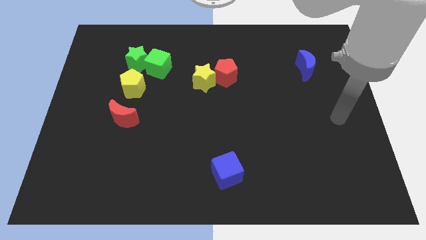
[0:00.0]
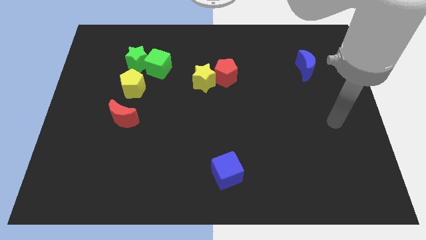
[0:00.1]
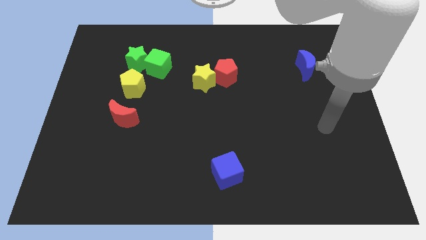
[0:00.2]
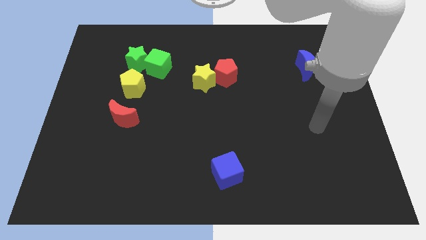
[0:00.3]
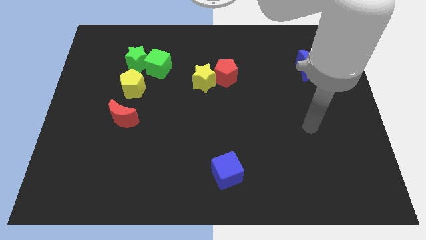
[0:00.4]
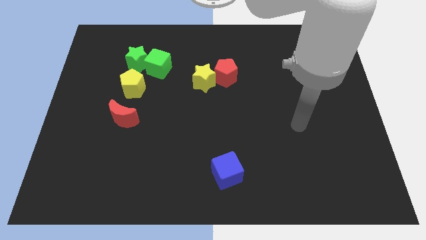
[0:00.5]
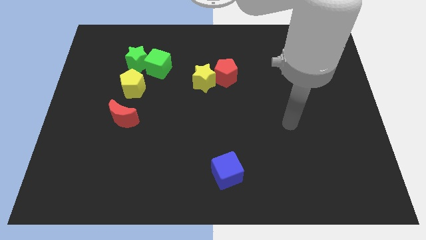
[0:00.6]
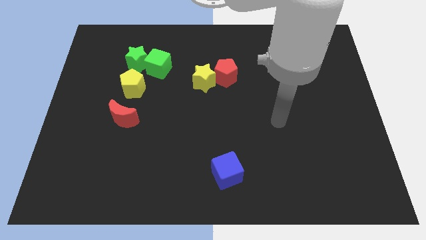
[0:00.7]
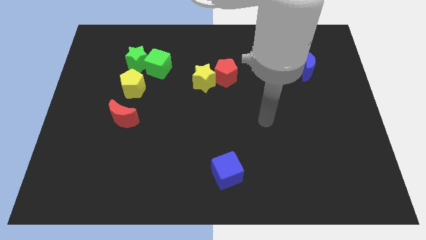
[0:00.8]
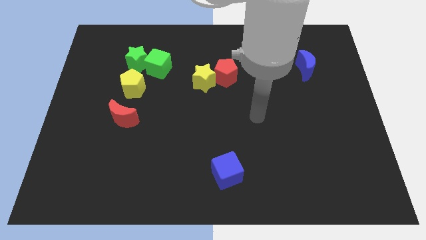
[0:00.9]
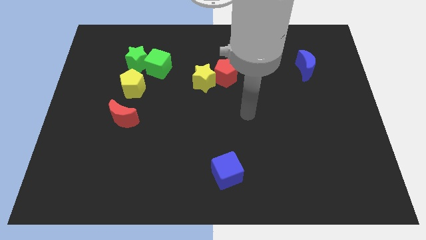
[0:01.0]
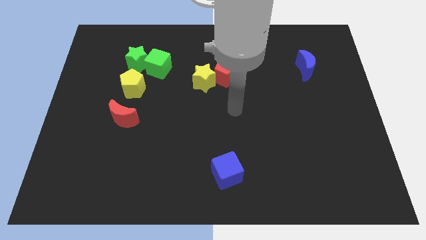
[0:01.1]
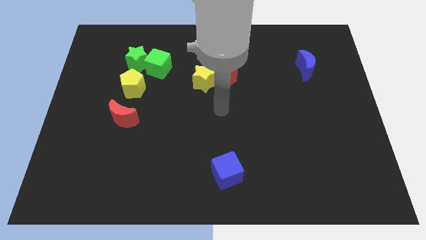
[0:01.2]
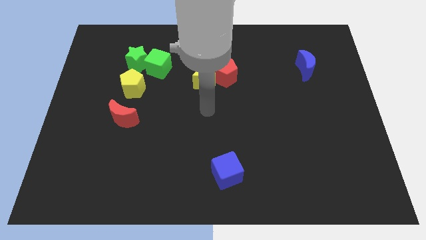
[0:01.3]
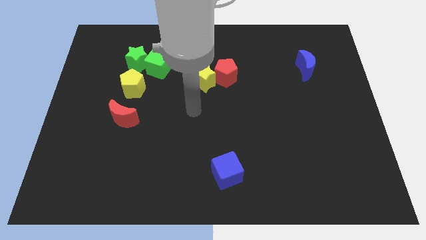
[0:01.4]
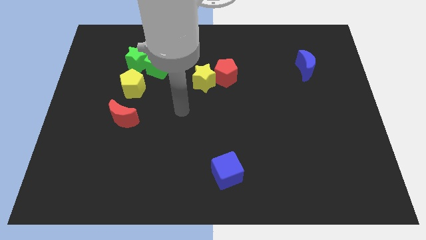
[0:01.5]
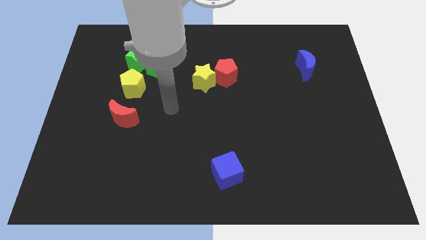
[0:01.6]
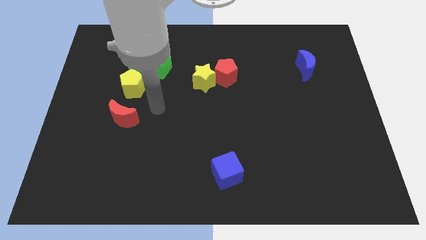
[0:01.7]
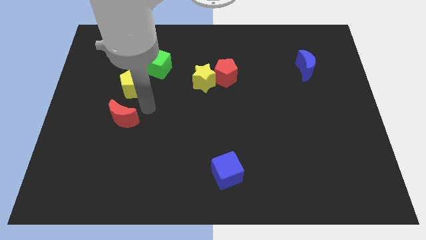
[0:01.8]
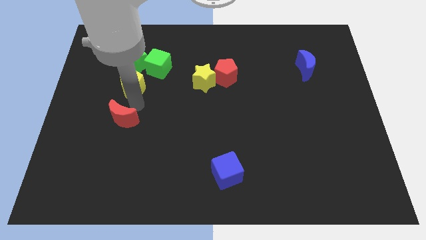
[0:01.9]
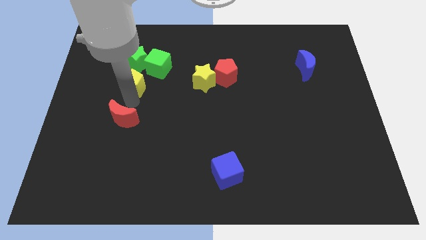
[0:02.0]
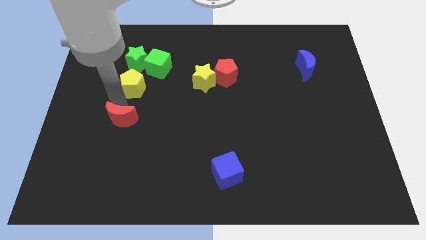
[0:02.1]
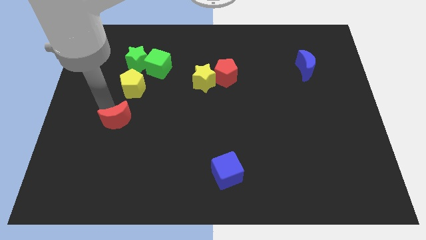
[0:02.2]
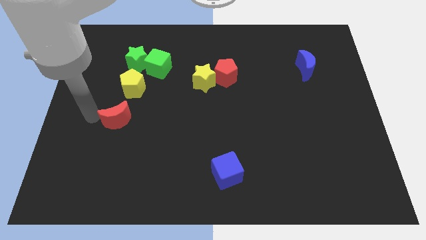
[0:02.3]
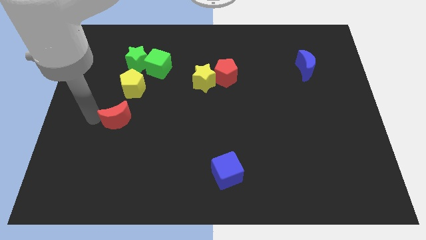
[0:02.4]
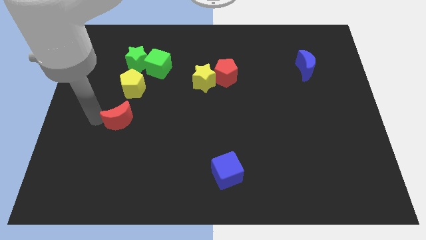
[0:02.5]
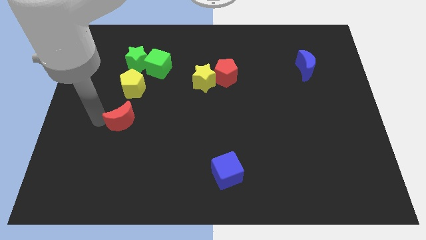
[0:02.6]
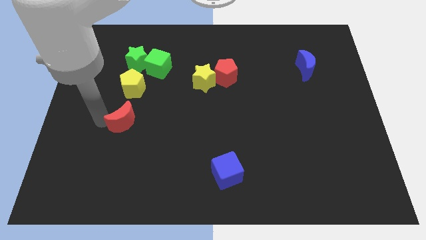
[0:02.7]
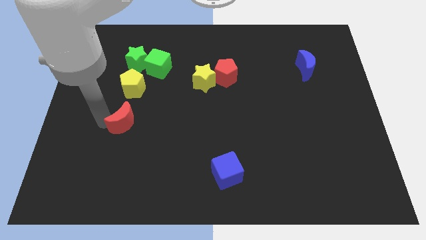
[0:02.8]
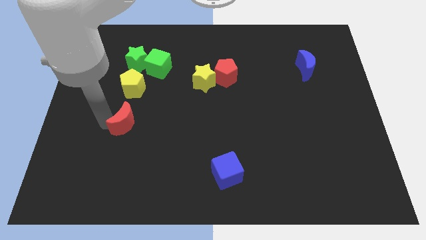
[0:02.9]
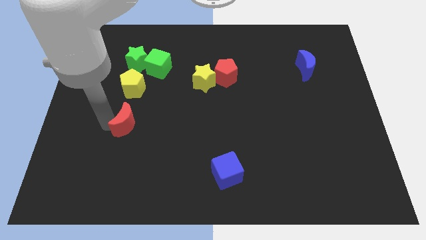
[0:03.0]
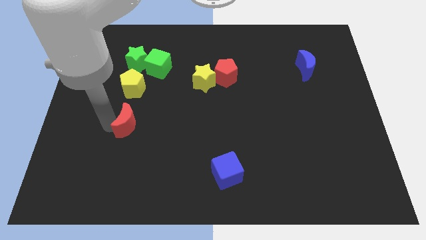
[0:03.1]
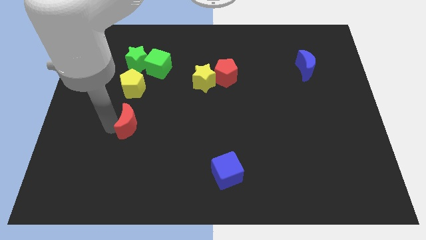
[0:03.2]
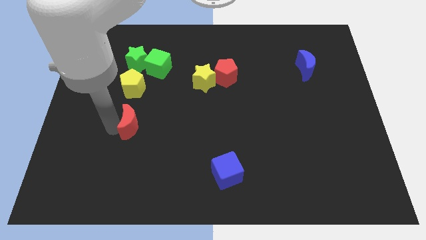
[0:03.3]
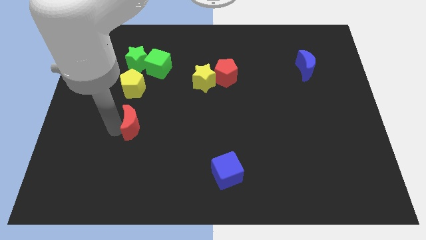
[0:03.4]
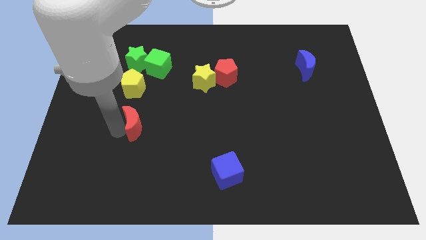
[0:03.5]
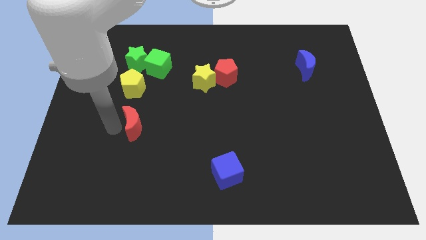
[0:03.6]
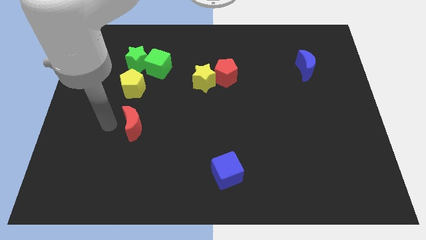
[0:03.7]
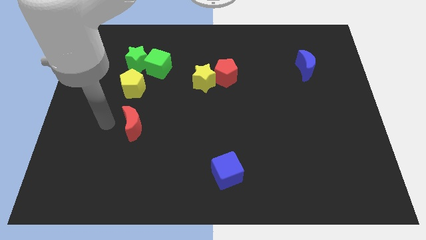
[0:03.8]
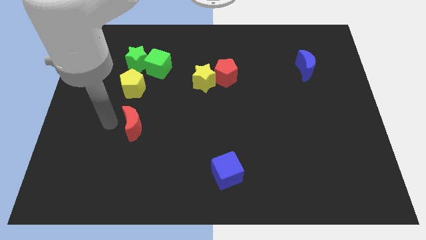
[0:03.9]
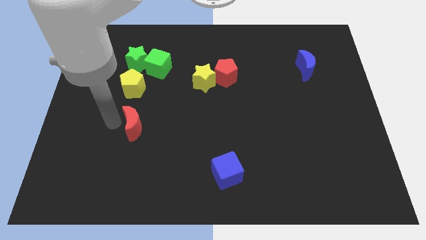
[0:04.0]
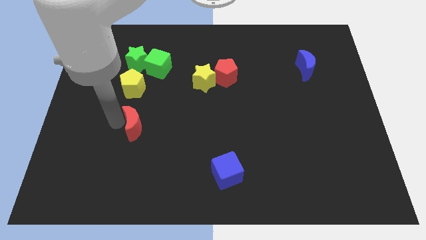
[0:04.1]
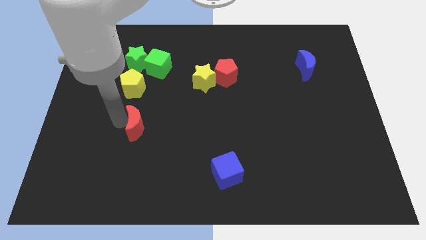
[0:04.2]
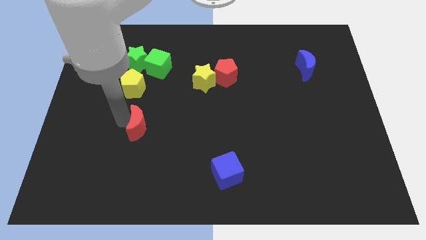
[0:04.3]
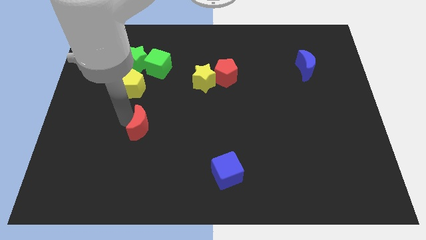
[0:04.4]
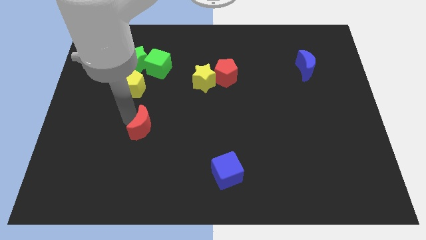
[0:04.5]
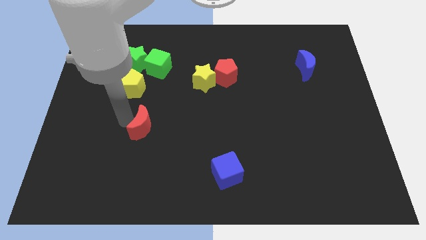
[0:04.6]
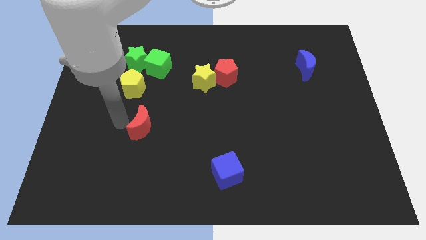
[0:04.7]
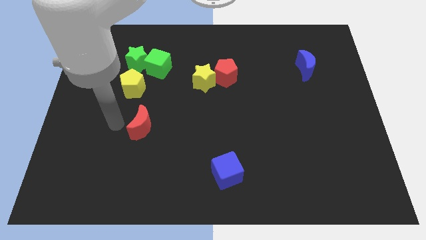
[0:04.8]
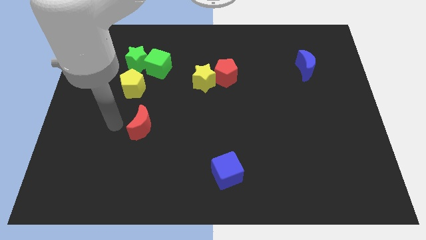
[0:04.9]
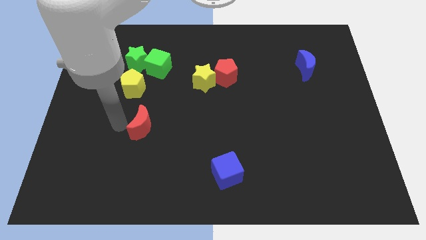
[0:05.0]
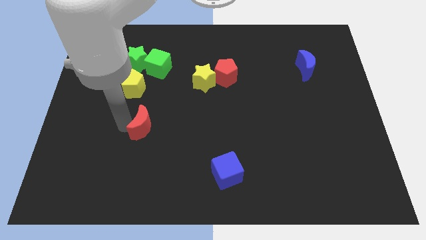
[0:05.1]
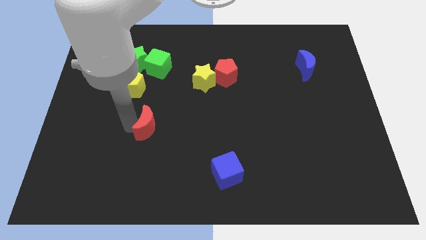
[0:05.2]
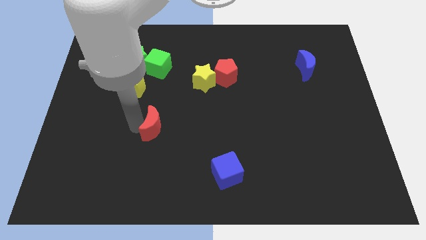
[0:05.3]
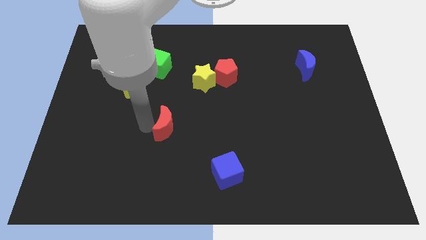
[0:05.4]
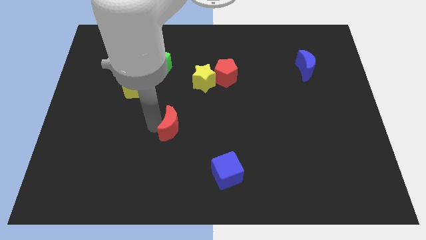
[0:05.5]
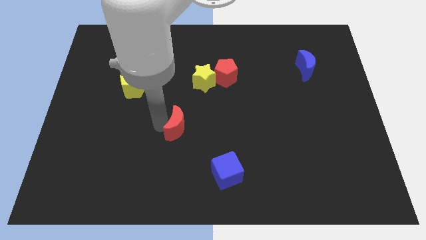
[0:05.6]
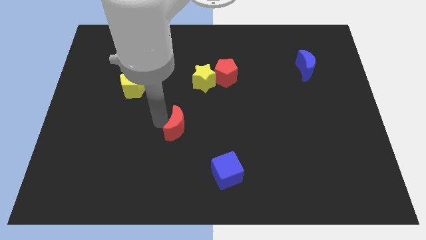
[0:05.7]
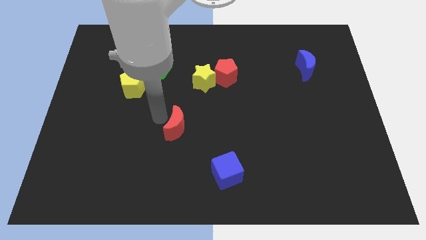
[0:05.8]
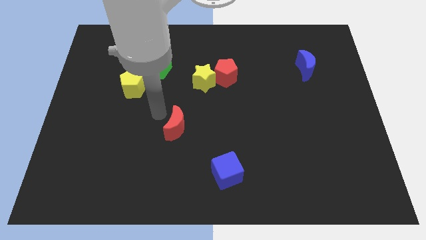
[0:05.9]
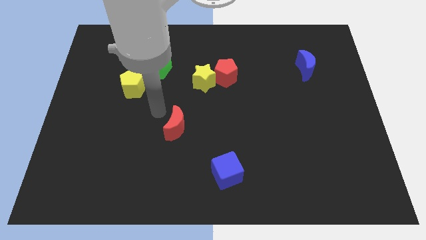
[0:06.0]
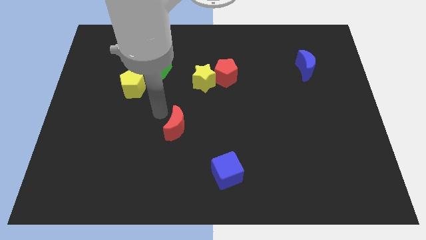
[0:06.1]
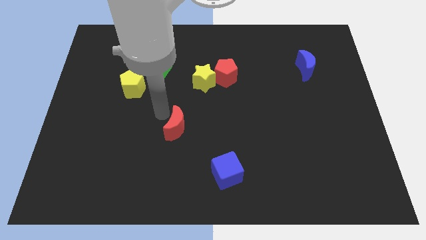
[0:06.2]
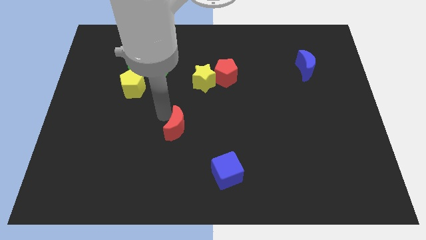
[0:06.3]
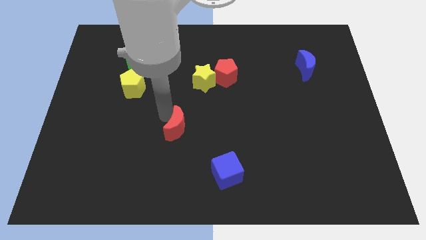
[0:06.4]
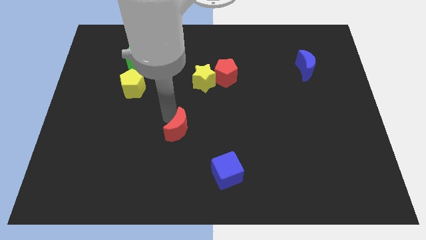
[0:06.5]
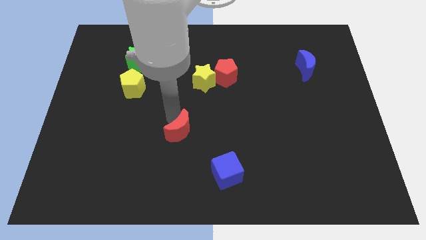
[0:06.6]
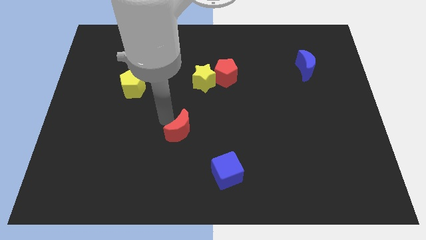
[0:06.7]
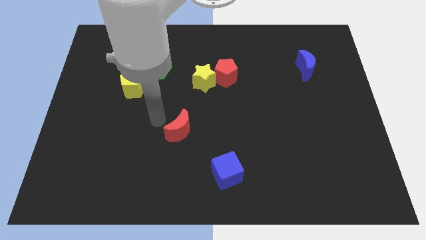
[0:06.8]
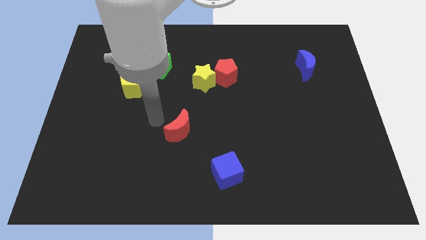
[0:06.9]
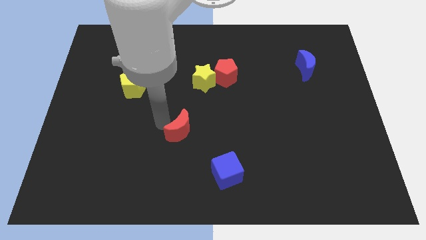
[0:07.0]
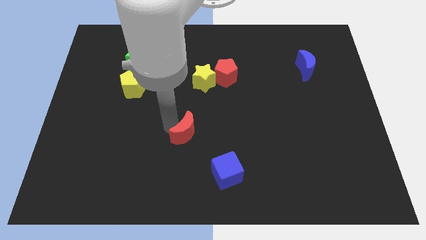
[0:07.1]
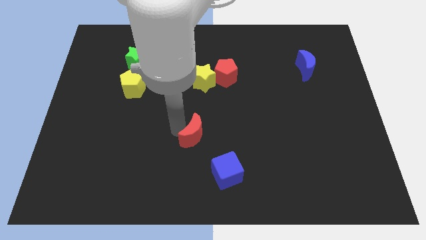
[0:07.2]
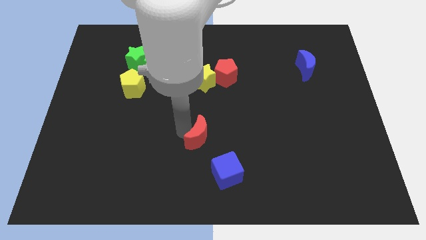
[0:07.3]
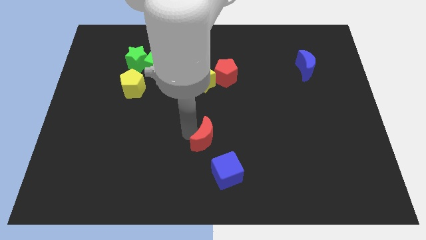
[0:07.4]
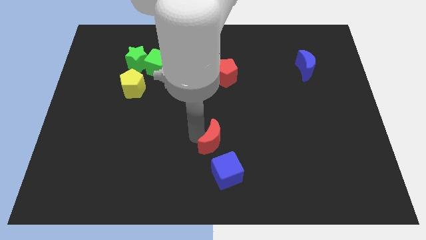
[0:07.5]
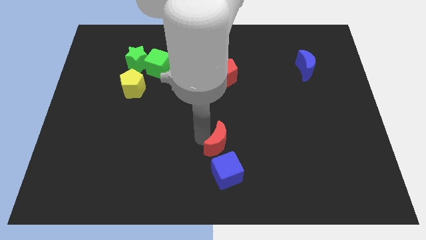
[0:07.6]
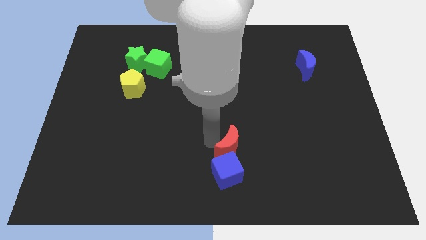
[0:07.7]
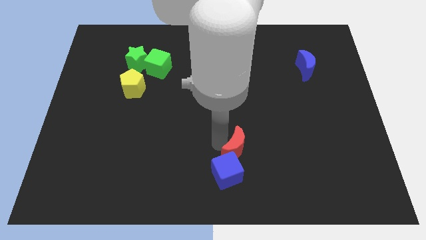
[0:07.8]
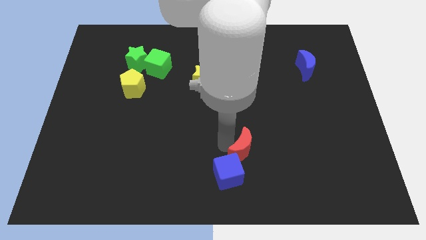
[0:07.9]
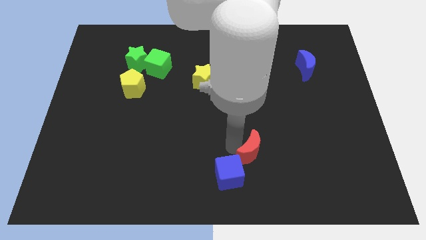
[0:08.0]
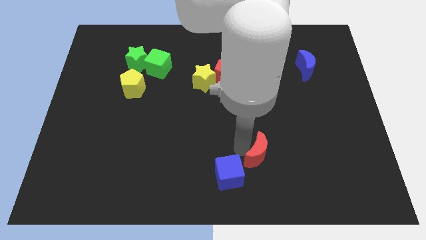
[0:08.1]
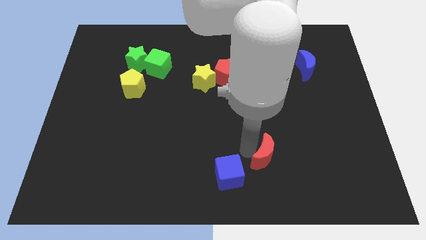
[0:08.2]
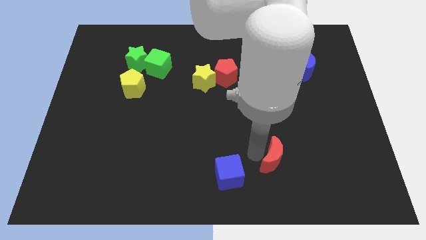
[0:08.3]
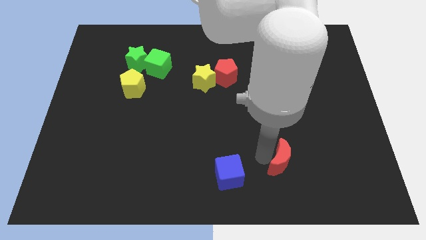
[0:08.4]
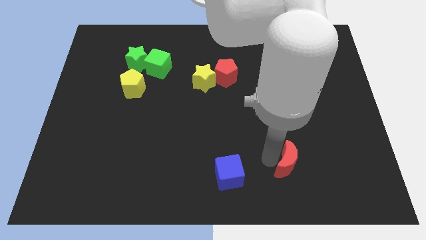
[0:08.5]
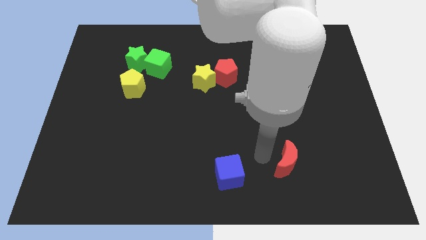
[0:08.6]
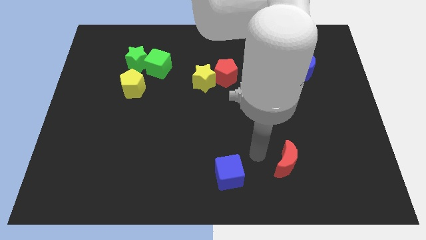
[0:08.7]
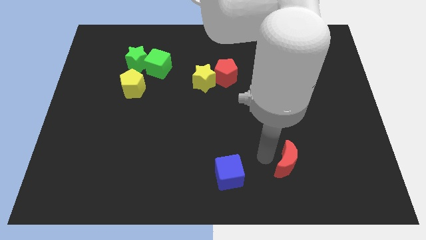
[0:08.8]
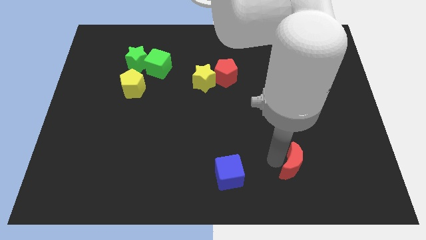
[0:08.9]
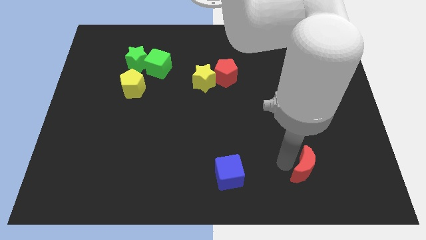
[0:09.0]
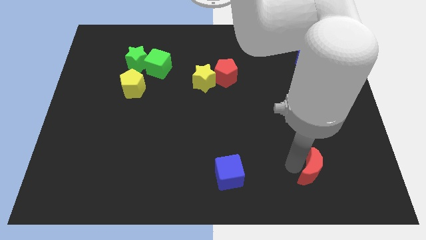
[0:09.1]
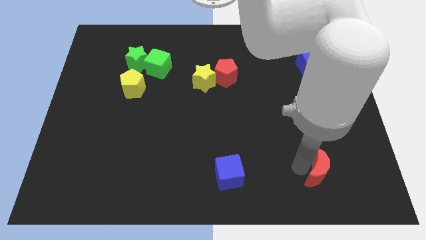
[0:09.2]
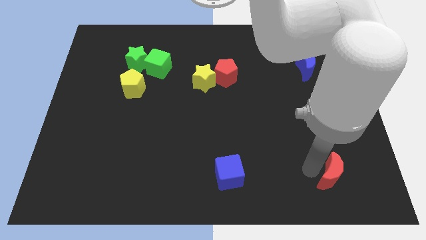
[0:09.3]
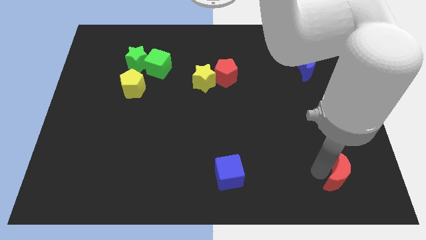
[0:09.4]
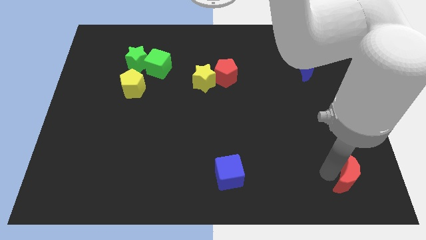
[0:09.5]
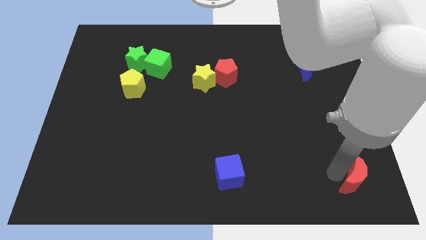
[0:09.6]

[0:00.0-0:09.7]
put the red moon to the bottom right corner
